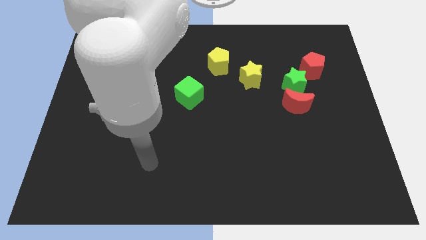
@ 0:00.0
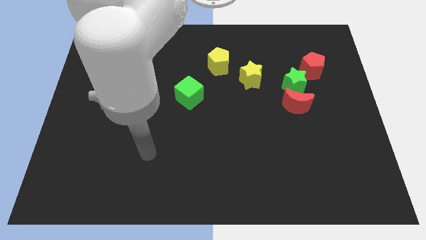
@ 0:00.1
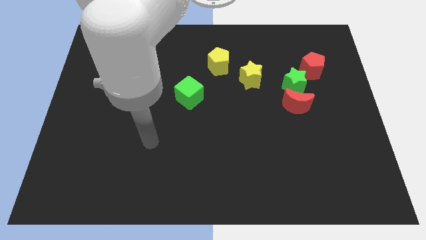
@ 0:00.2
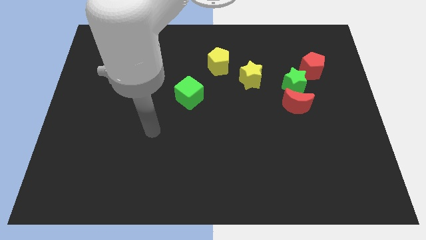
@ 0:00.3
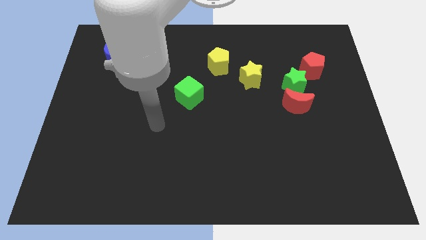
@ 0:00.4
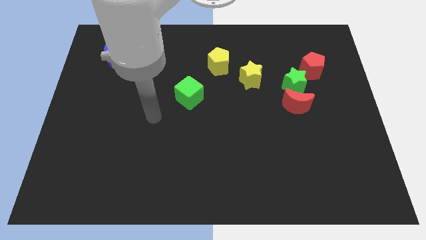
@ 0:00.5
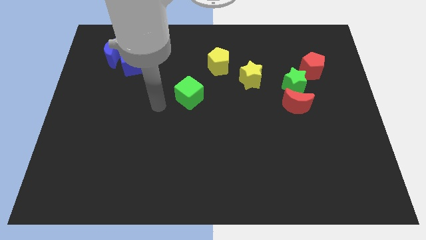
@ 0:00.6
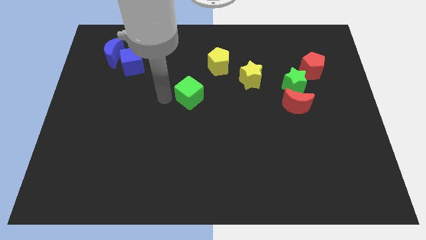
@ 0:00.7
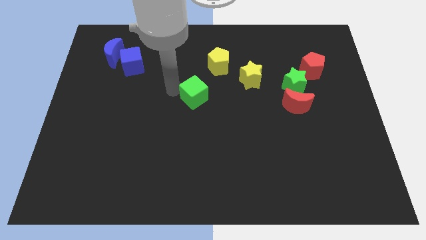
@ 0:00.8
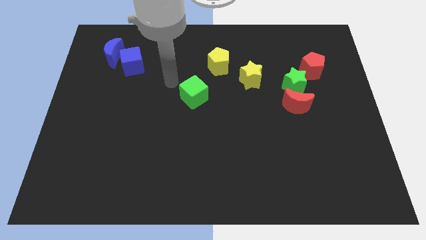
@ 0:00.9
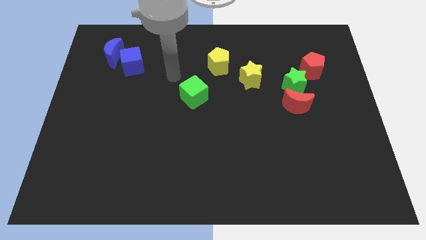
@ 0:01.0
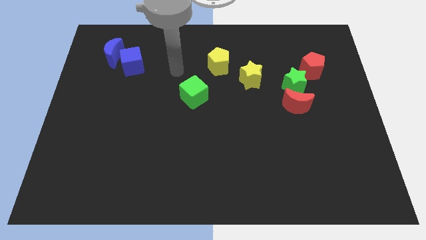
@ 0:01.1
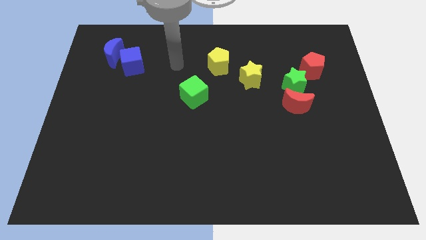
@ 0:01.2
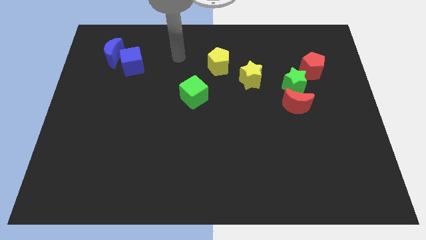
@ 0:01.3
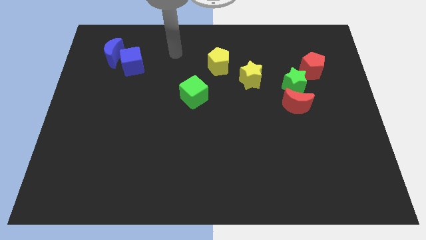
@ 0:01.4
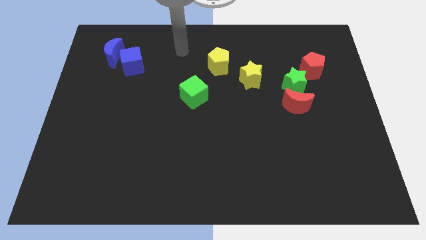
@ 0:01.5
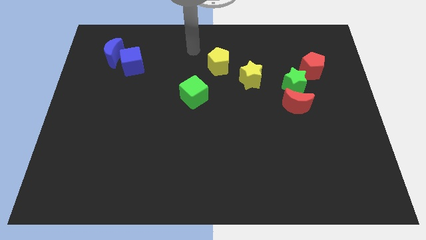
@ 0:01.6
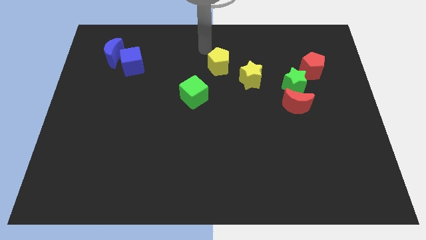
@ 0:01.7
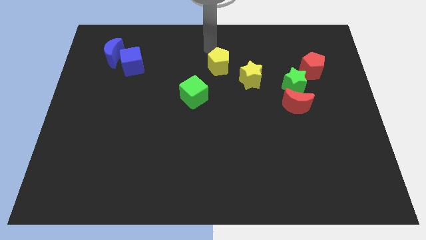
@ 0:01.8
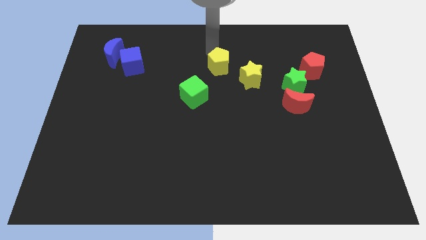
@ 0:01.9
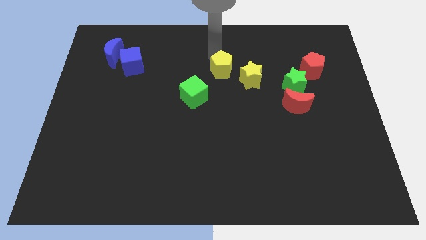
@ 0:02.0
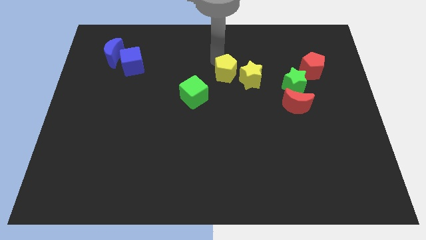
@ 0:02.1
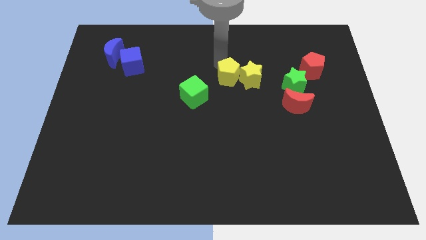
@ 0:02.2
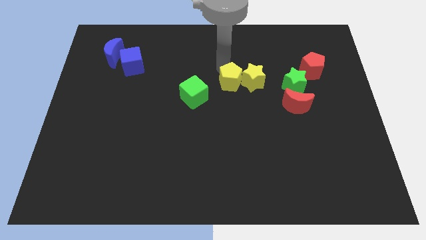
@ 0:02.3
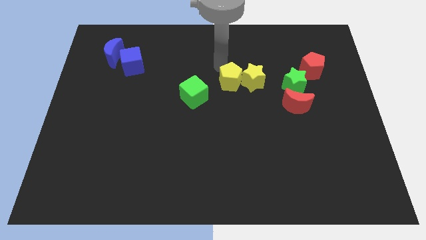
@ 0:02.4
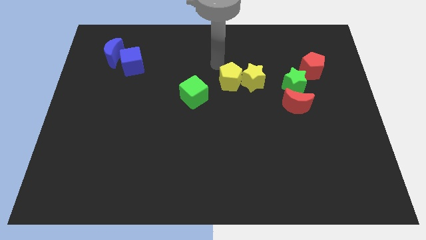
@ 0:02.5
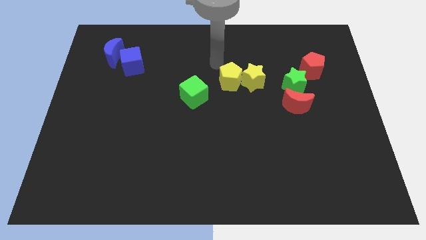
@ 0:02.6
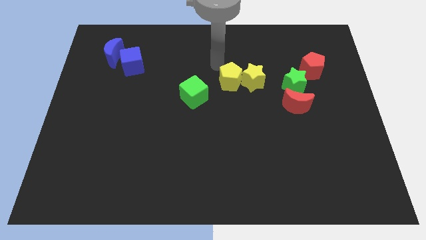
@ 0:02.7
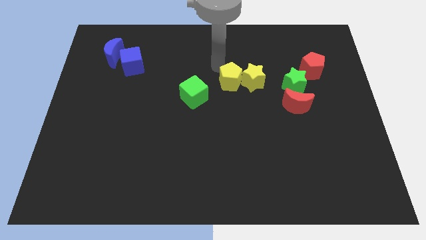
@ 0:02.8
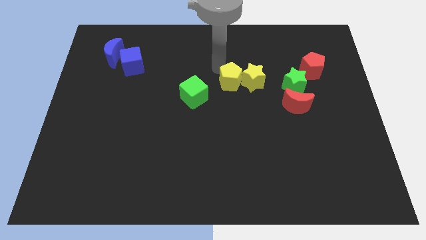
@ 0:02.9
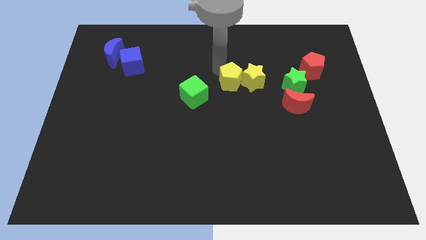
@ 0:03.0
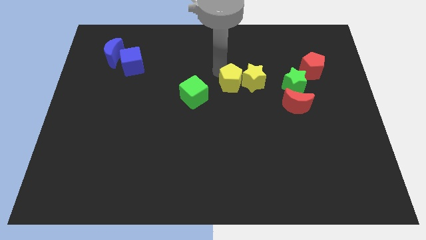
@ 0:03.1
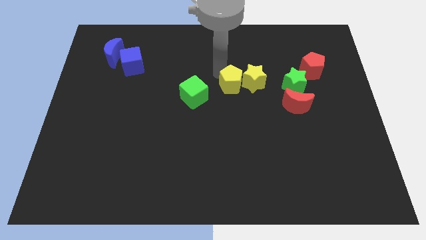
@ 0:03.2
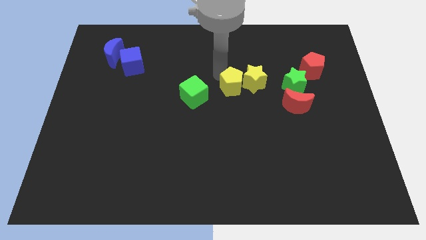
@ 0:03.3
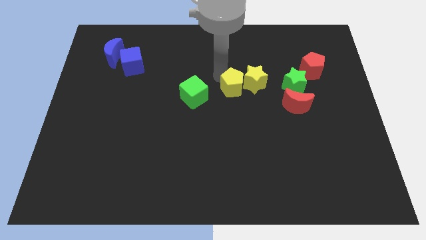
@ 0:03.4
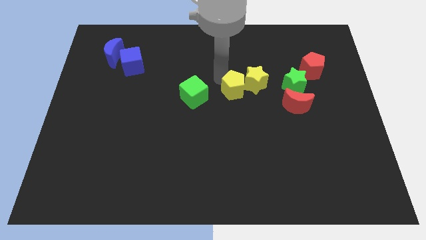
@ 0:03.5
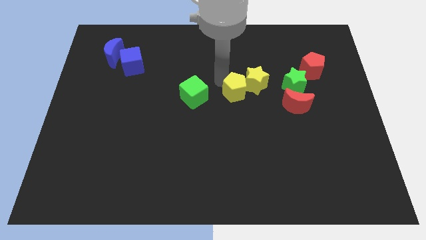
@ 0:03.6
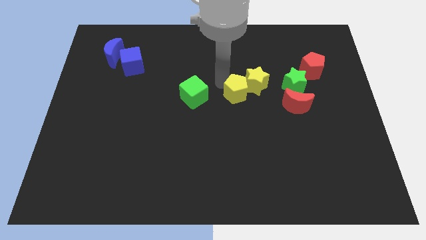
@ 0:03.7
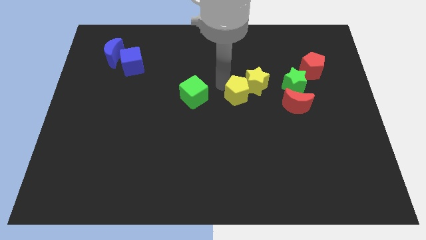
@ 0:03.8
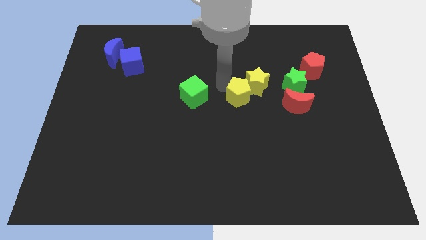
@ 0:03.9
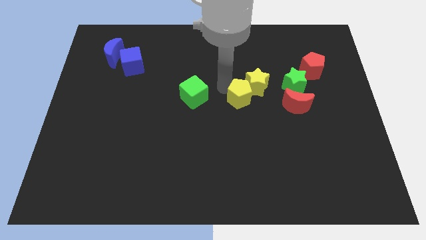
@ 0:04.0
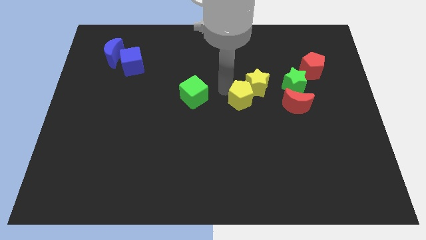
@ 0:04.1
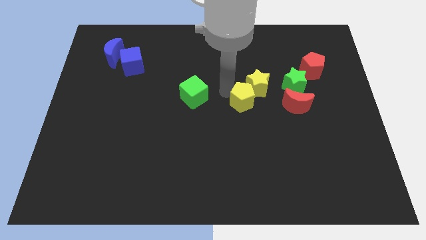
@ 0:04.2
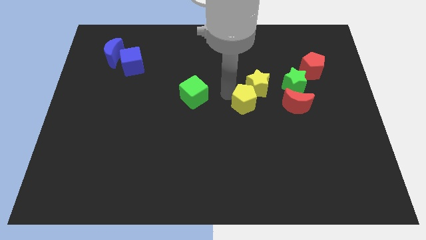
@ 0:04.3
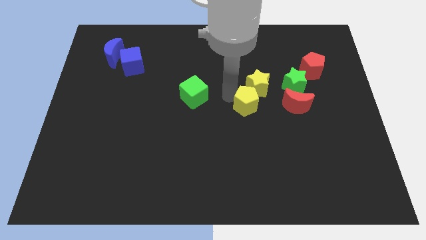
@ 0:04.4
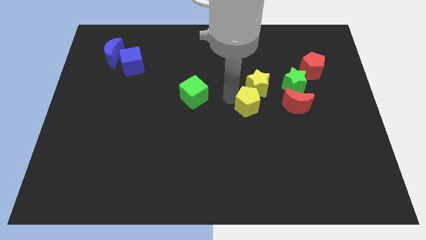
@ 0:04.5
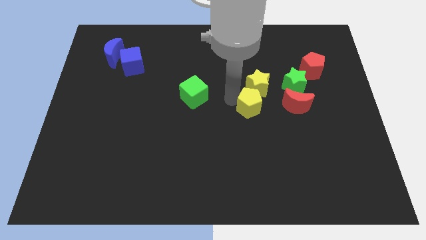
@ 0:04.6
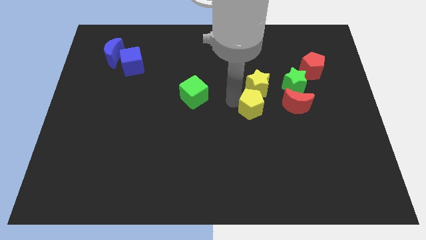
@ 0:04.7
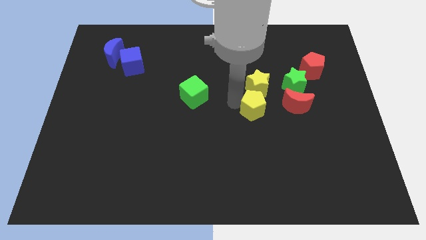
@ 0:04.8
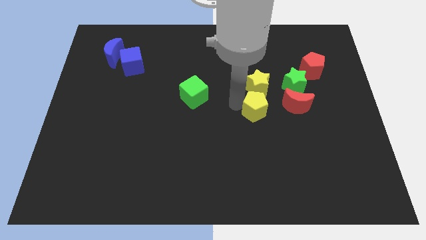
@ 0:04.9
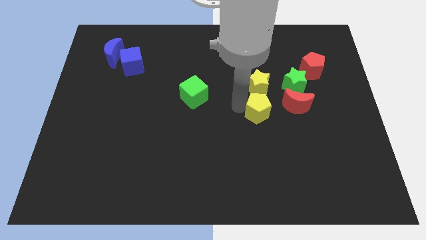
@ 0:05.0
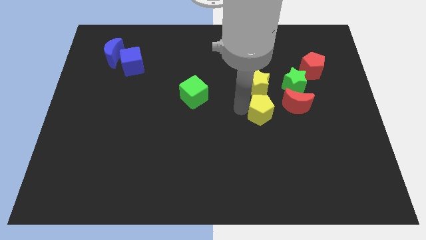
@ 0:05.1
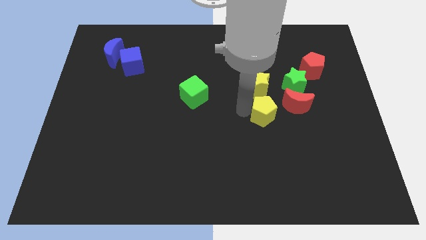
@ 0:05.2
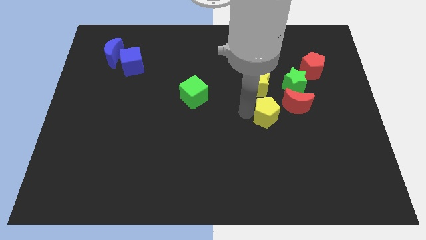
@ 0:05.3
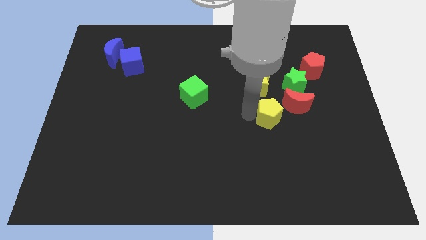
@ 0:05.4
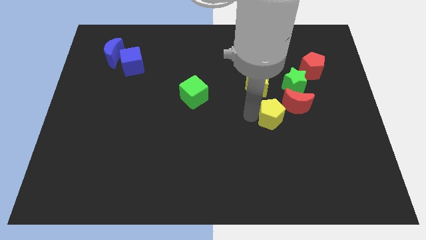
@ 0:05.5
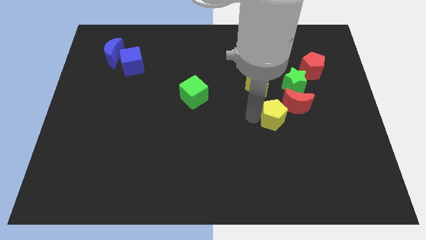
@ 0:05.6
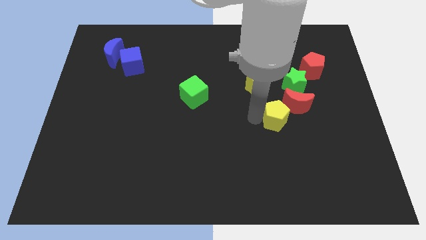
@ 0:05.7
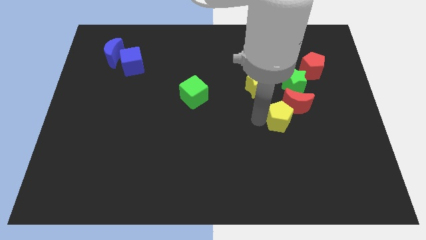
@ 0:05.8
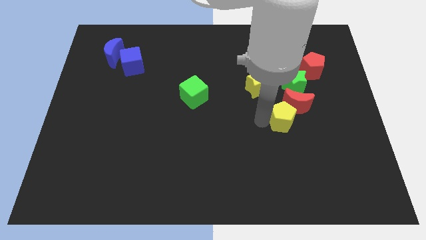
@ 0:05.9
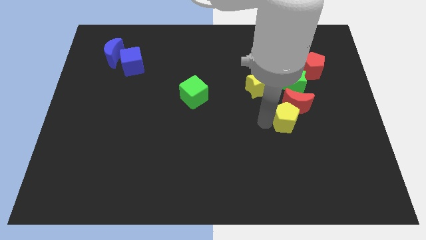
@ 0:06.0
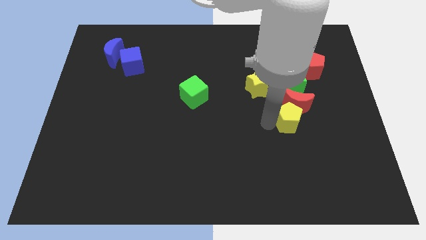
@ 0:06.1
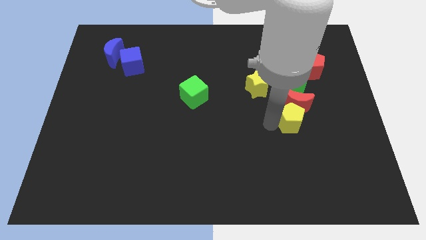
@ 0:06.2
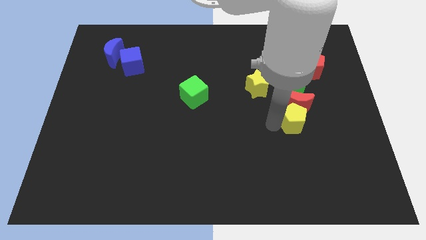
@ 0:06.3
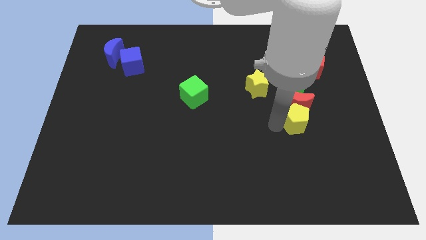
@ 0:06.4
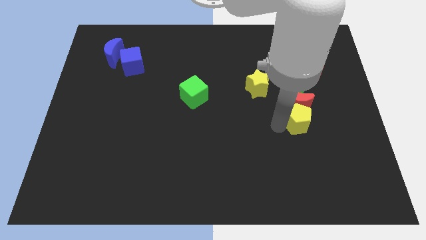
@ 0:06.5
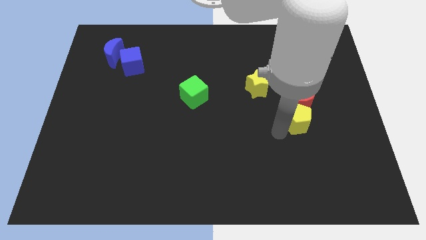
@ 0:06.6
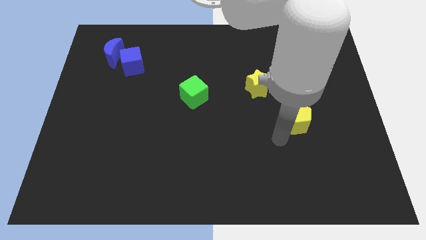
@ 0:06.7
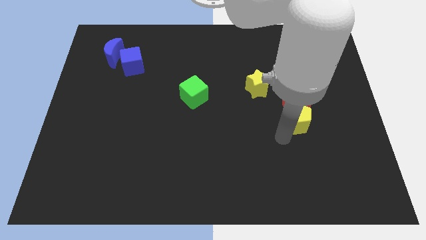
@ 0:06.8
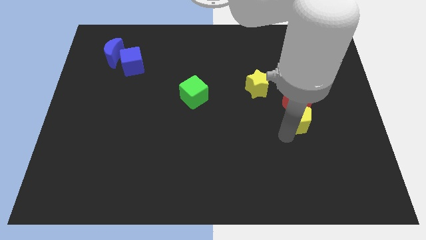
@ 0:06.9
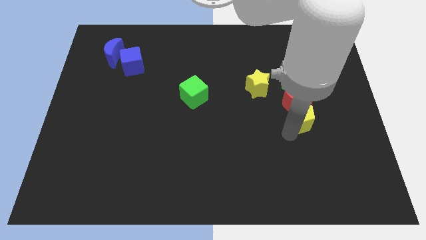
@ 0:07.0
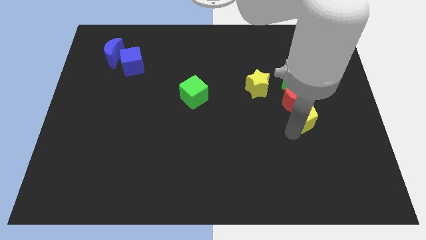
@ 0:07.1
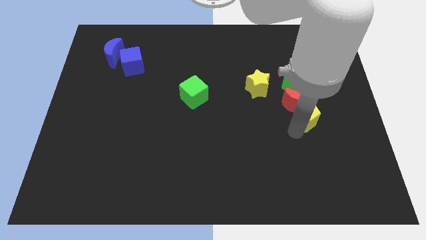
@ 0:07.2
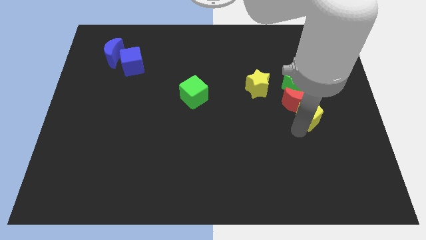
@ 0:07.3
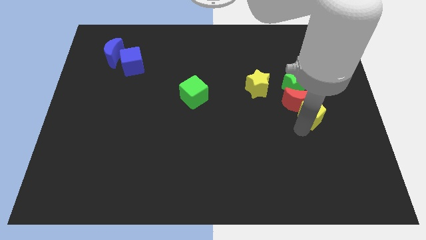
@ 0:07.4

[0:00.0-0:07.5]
put the yellow pentagon to the bottom right of the green star
